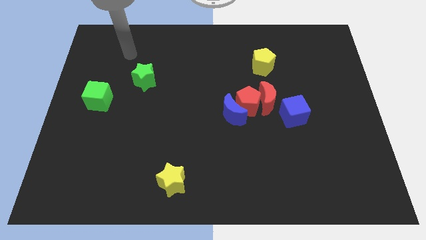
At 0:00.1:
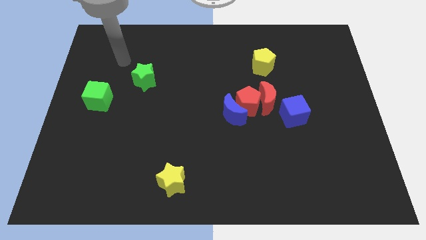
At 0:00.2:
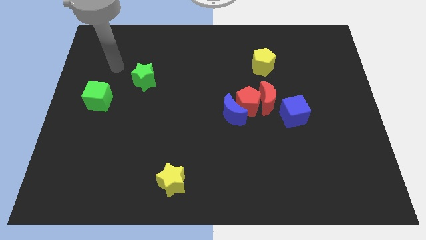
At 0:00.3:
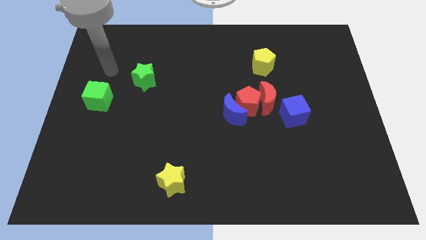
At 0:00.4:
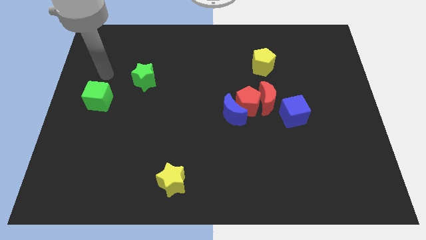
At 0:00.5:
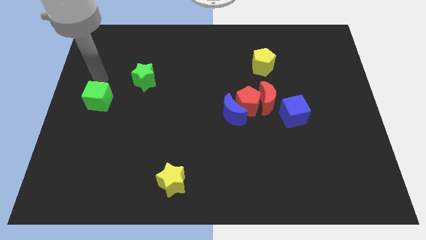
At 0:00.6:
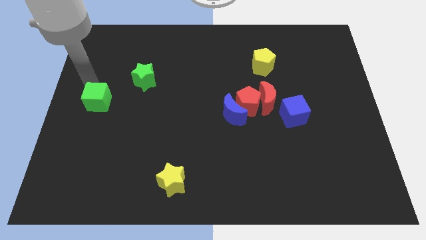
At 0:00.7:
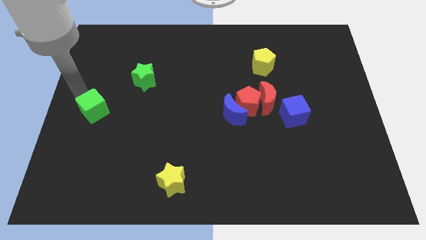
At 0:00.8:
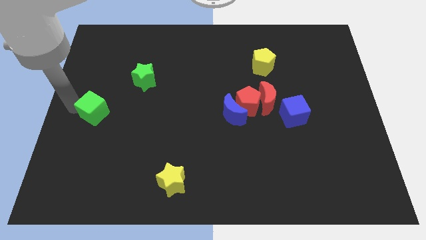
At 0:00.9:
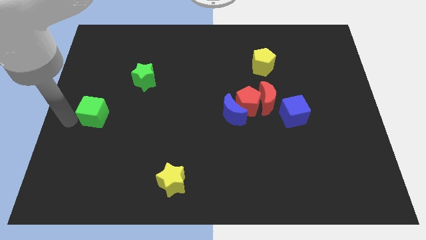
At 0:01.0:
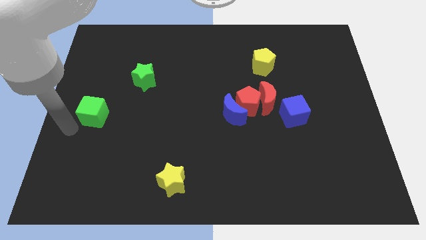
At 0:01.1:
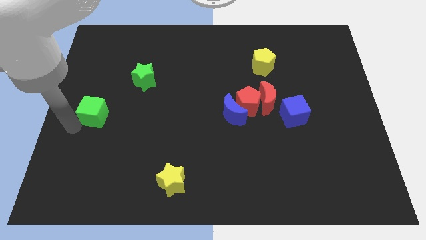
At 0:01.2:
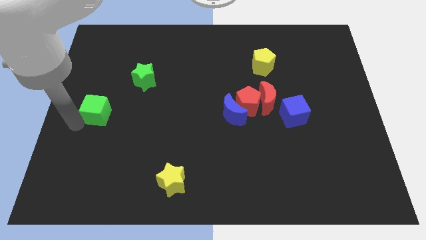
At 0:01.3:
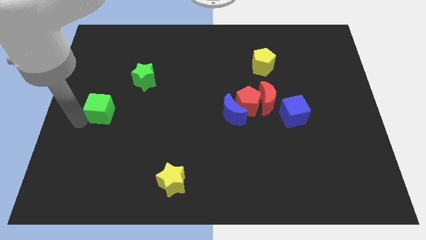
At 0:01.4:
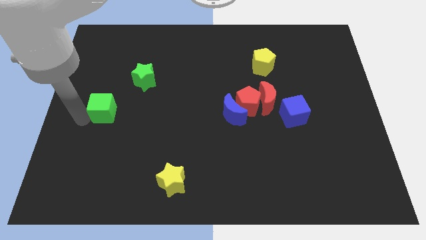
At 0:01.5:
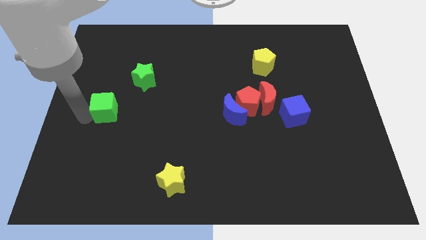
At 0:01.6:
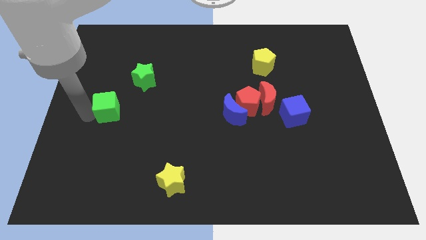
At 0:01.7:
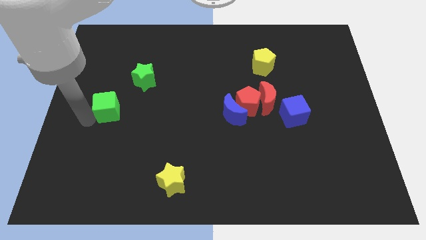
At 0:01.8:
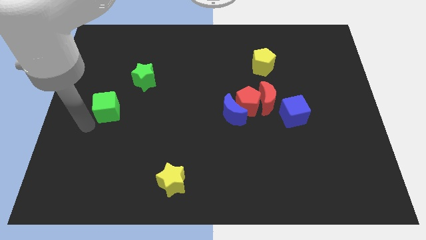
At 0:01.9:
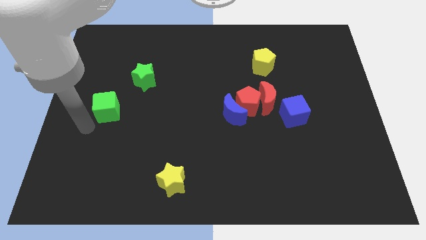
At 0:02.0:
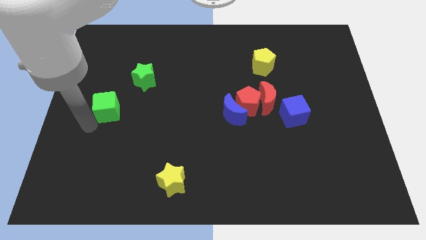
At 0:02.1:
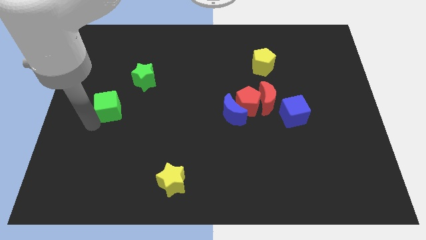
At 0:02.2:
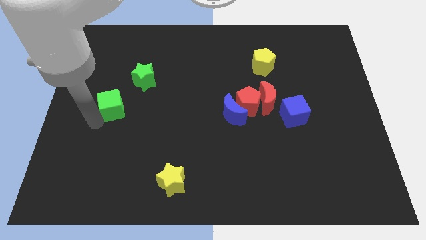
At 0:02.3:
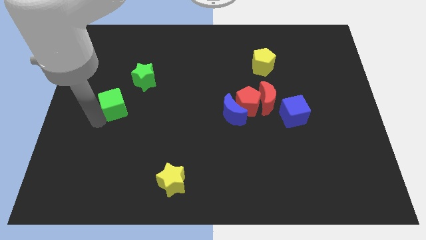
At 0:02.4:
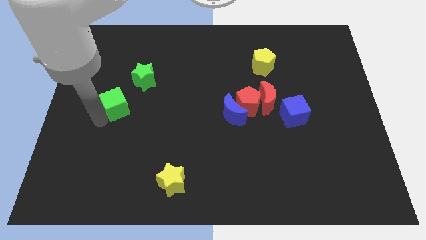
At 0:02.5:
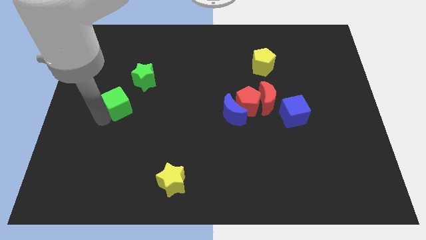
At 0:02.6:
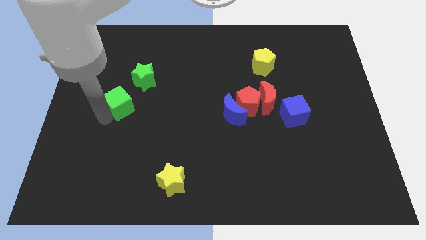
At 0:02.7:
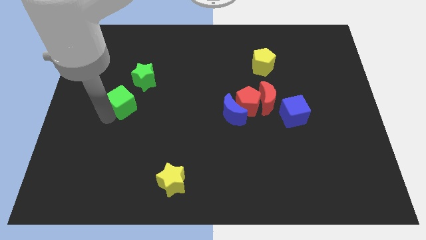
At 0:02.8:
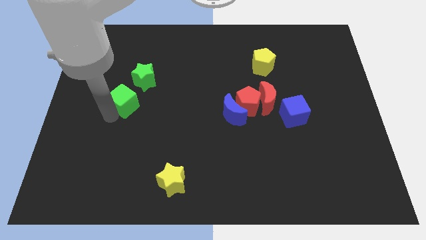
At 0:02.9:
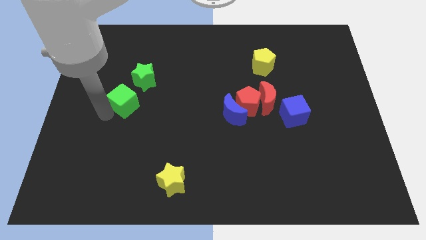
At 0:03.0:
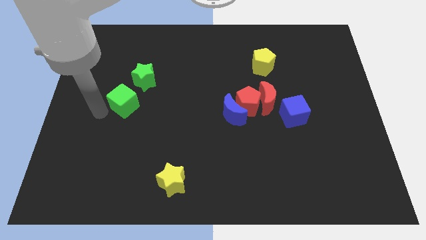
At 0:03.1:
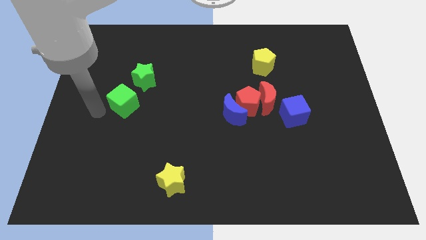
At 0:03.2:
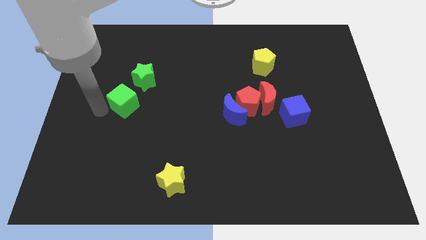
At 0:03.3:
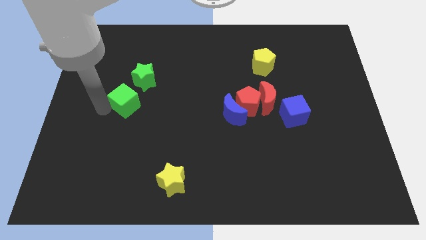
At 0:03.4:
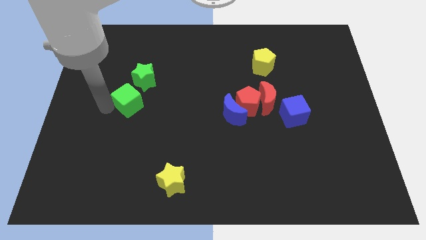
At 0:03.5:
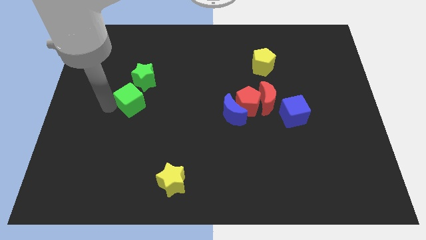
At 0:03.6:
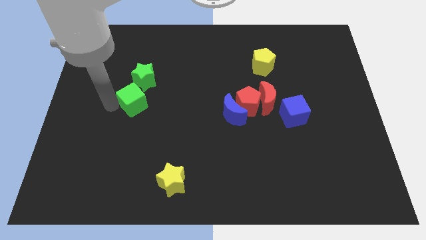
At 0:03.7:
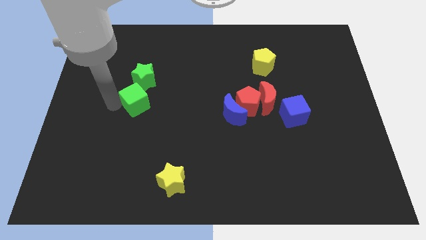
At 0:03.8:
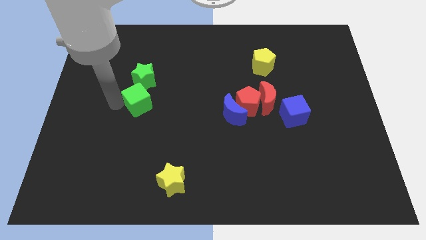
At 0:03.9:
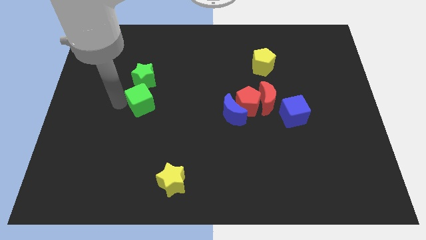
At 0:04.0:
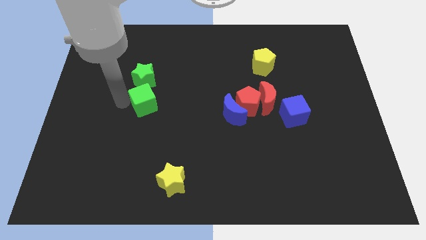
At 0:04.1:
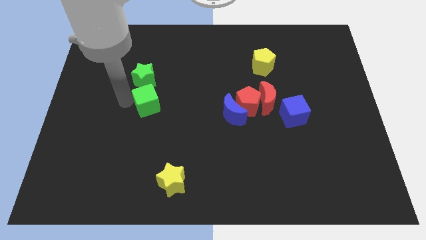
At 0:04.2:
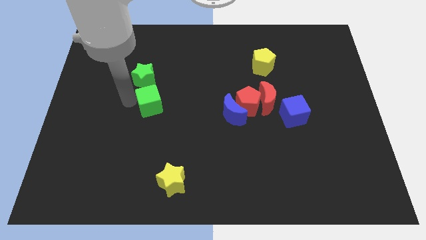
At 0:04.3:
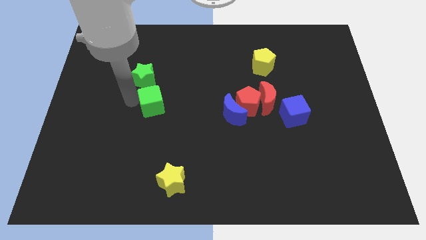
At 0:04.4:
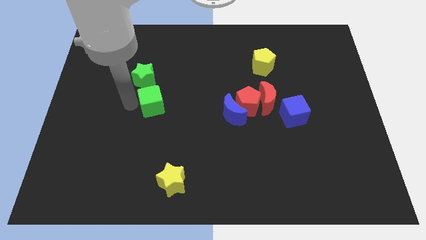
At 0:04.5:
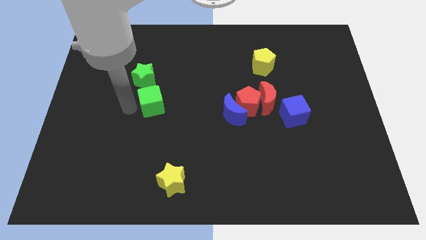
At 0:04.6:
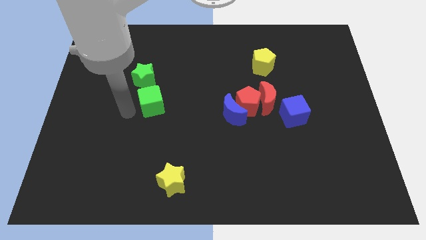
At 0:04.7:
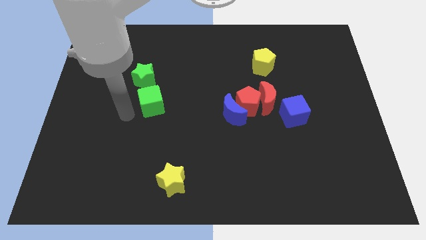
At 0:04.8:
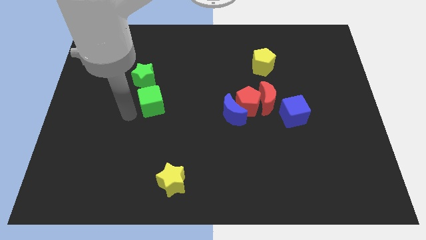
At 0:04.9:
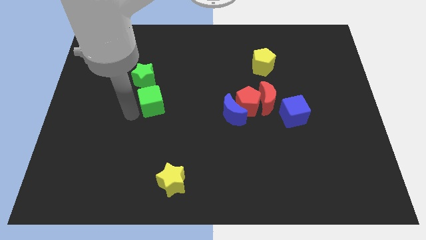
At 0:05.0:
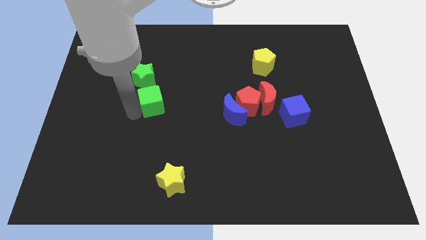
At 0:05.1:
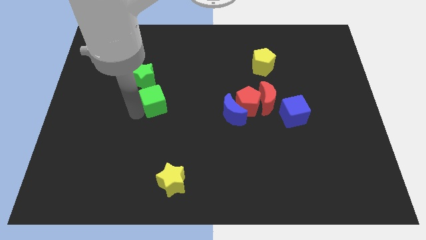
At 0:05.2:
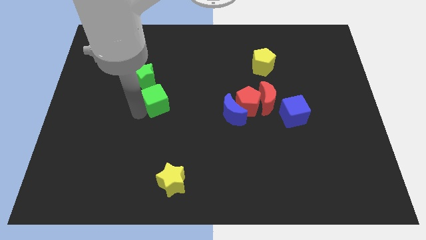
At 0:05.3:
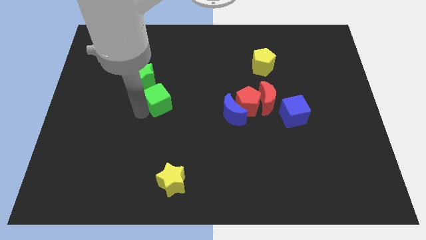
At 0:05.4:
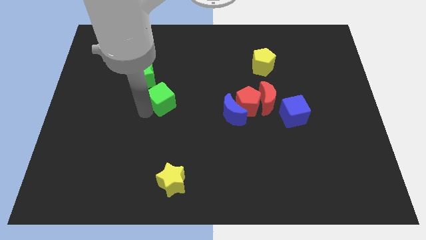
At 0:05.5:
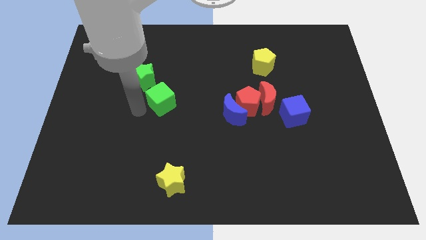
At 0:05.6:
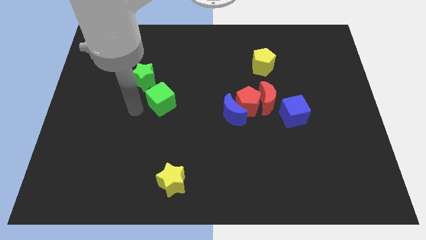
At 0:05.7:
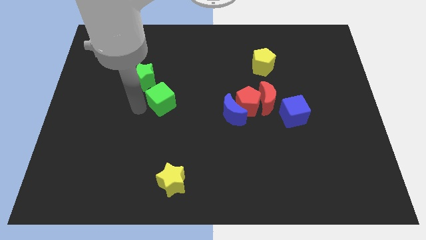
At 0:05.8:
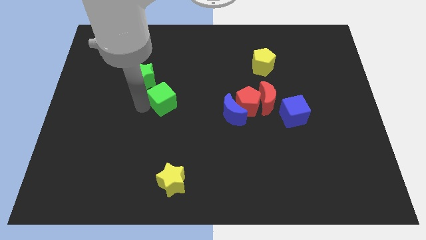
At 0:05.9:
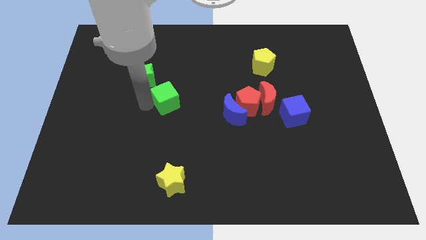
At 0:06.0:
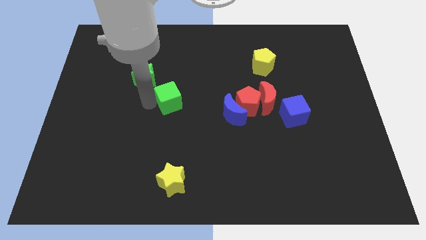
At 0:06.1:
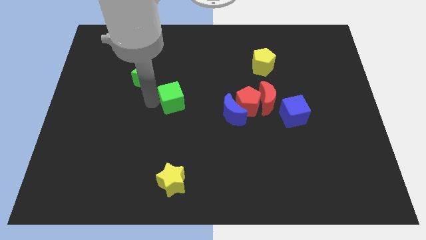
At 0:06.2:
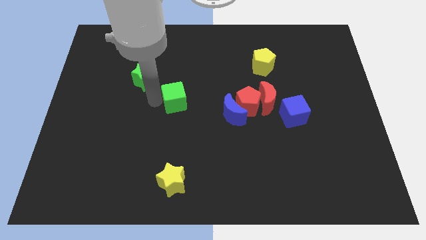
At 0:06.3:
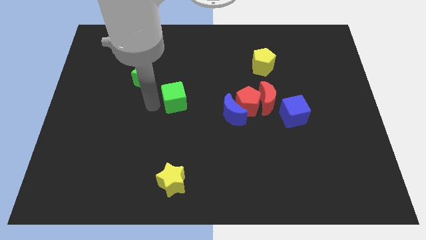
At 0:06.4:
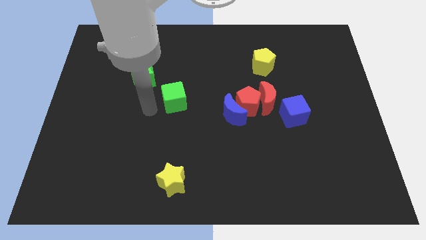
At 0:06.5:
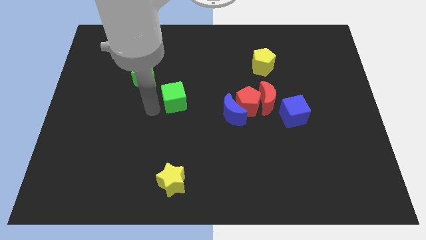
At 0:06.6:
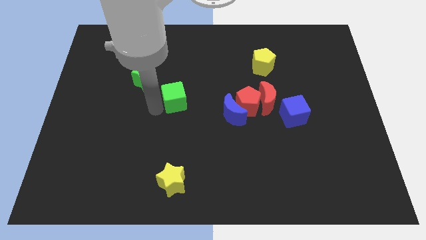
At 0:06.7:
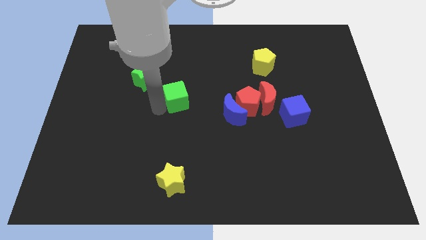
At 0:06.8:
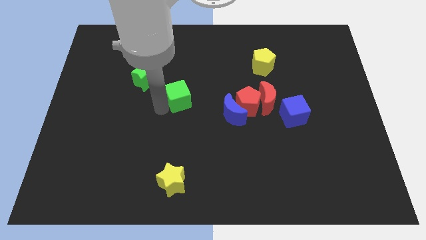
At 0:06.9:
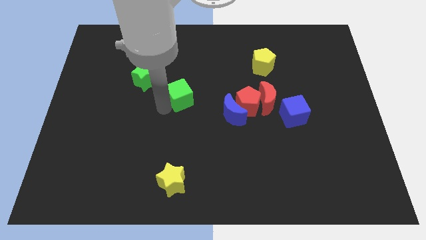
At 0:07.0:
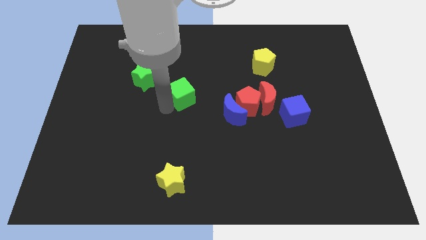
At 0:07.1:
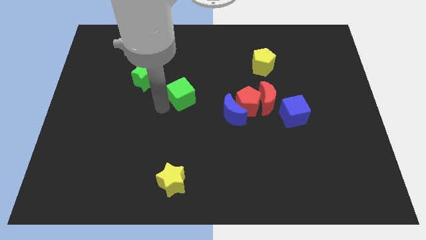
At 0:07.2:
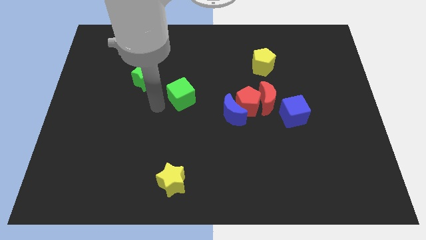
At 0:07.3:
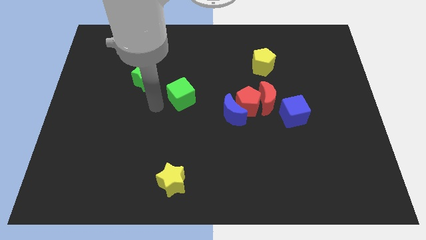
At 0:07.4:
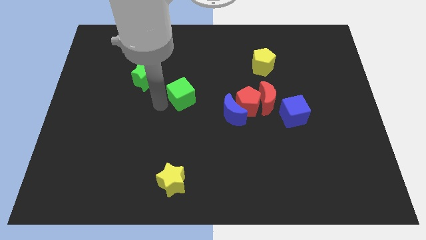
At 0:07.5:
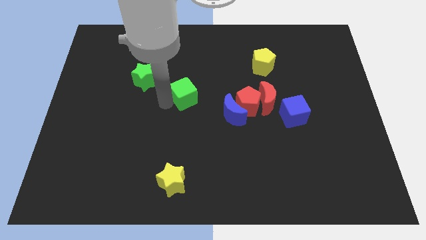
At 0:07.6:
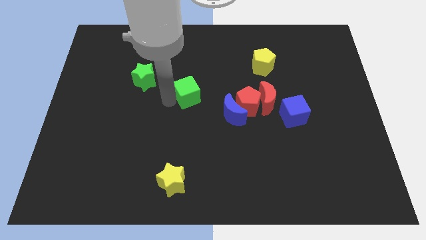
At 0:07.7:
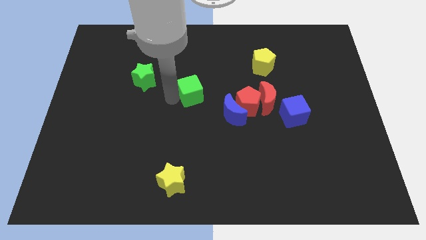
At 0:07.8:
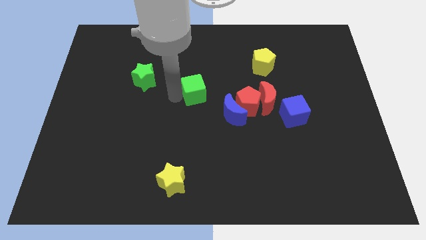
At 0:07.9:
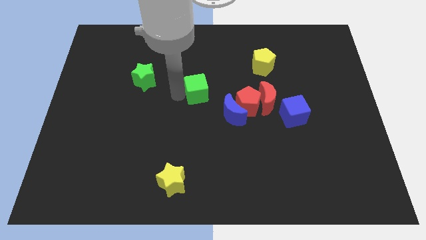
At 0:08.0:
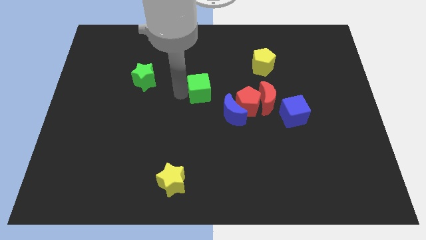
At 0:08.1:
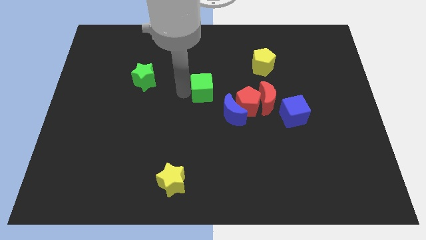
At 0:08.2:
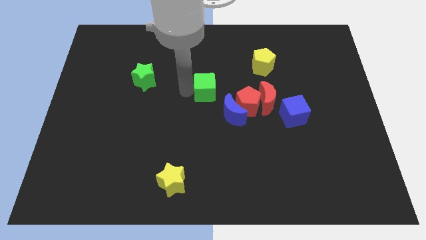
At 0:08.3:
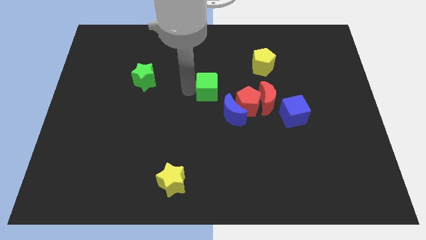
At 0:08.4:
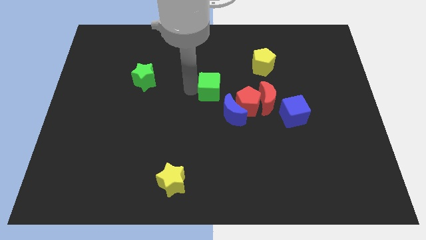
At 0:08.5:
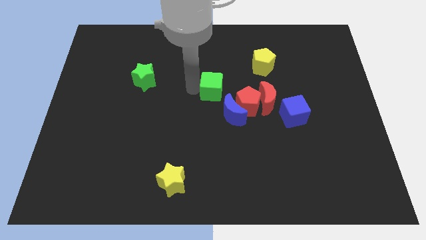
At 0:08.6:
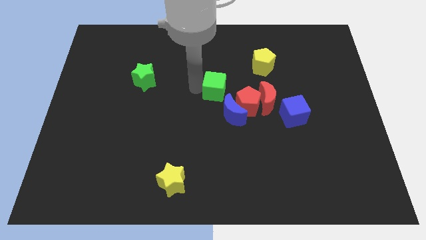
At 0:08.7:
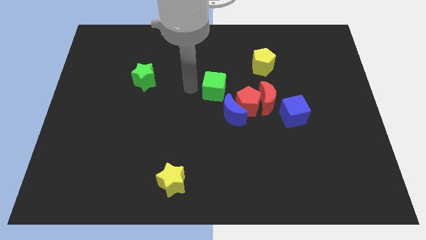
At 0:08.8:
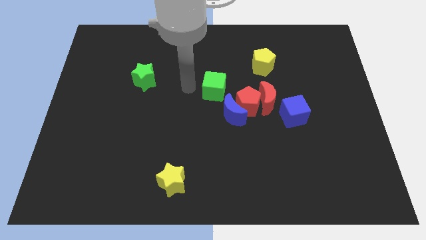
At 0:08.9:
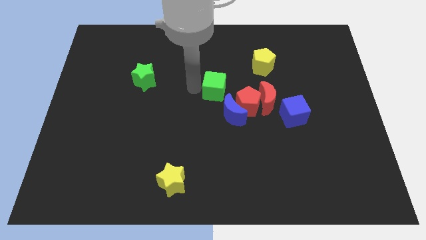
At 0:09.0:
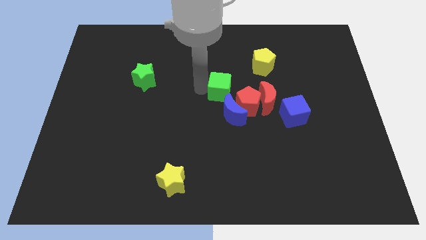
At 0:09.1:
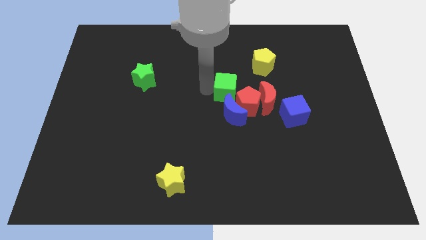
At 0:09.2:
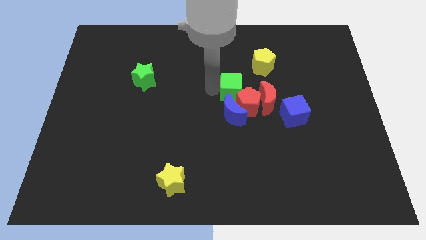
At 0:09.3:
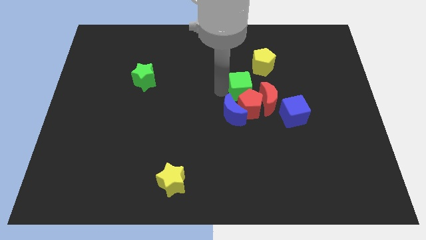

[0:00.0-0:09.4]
put the green cube to the top right side of the blue moon
